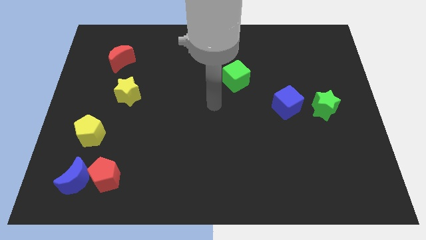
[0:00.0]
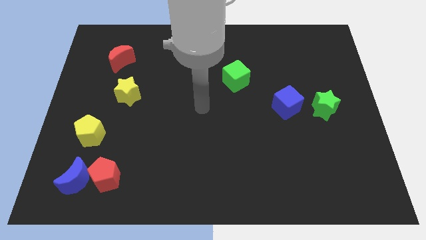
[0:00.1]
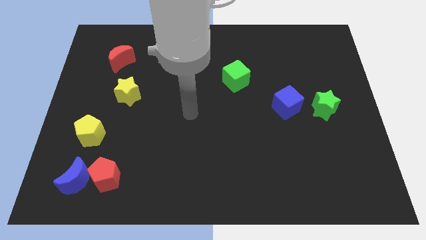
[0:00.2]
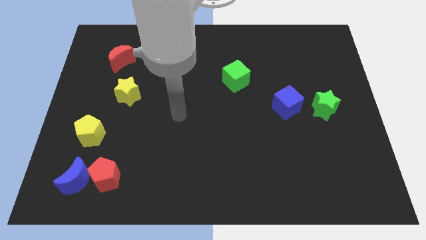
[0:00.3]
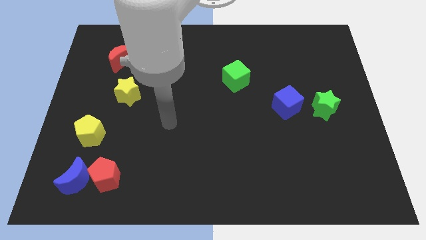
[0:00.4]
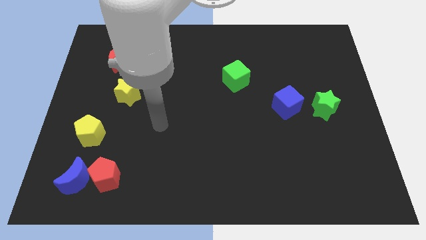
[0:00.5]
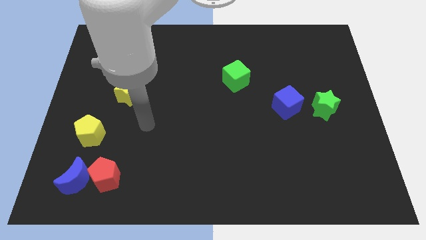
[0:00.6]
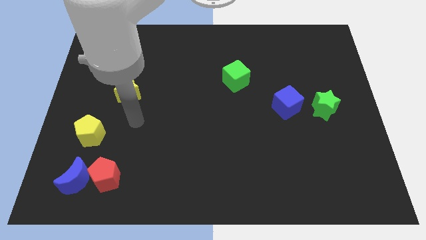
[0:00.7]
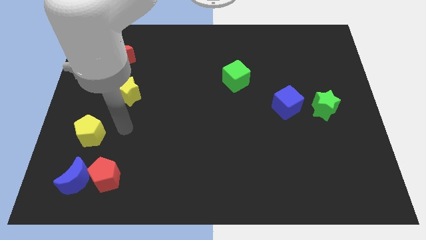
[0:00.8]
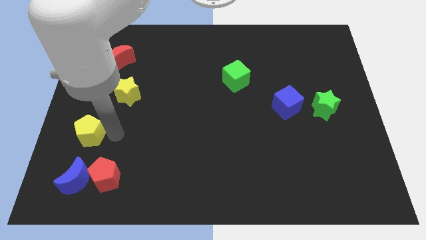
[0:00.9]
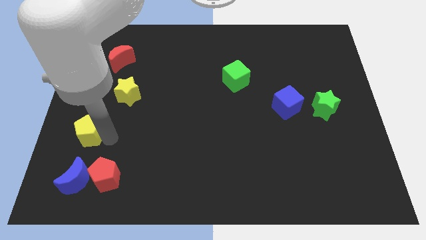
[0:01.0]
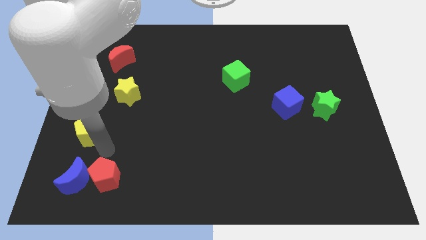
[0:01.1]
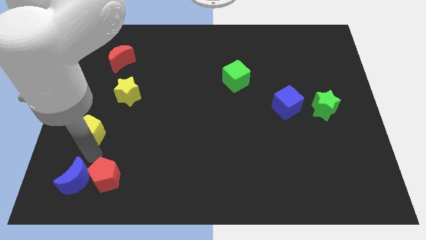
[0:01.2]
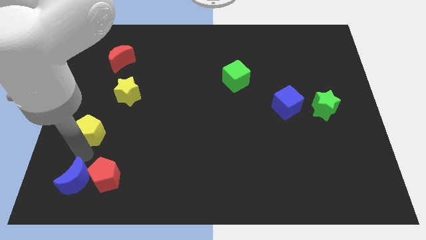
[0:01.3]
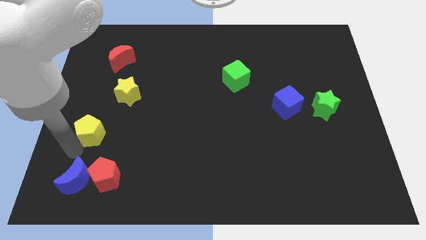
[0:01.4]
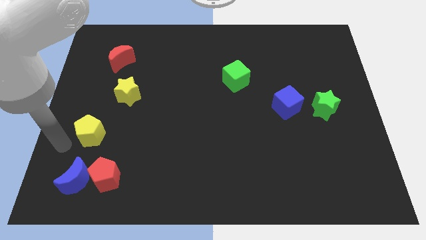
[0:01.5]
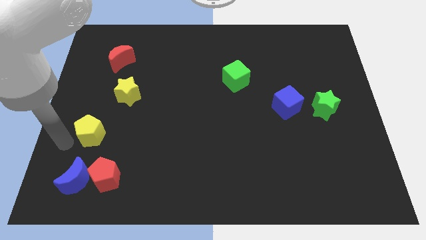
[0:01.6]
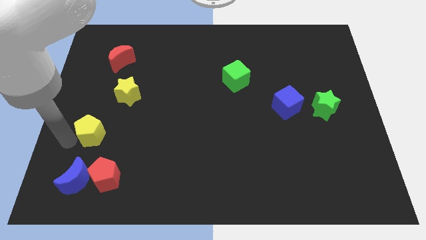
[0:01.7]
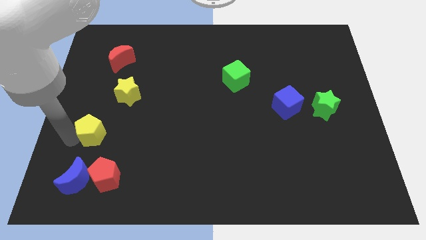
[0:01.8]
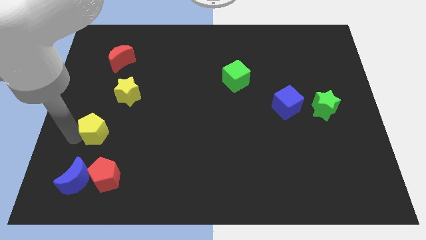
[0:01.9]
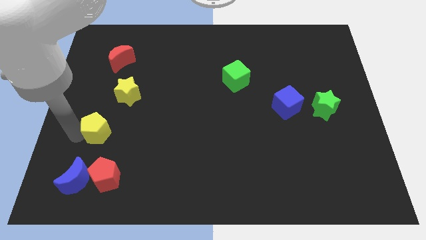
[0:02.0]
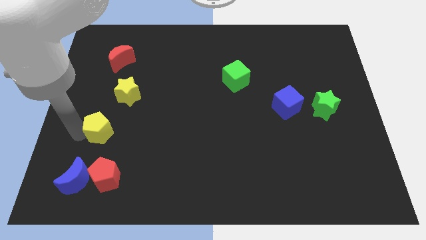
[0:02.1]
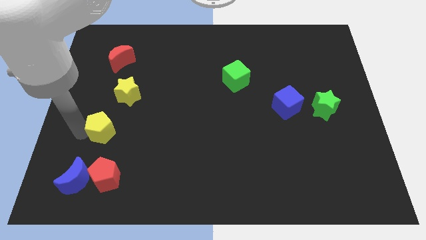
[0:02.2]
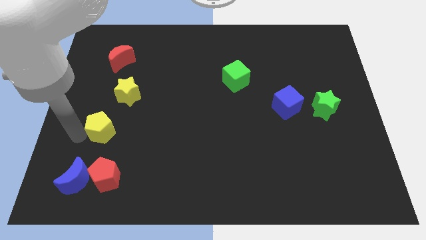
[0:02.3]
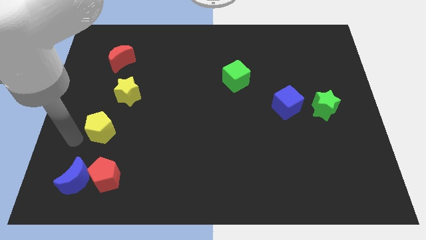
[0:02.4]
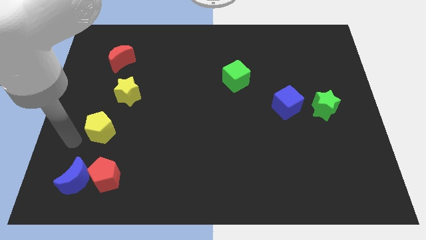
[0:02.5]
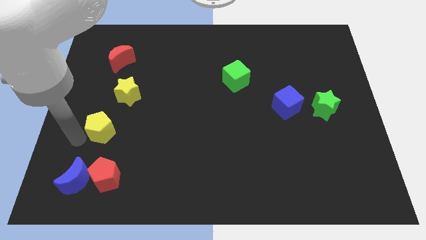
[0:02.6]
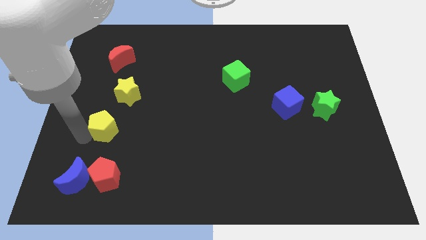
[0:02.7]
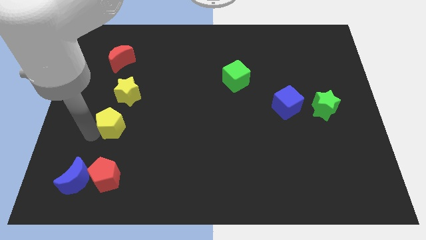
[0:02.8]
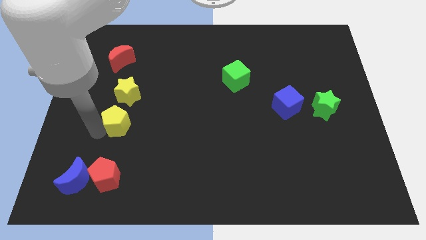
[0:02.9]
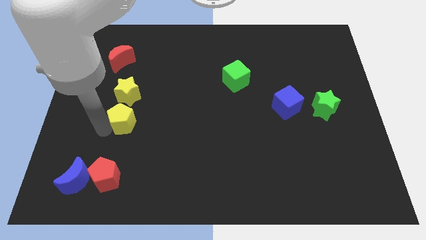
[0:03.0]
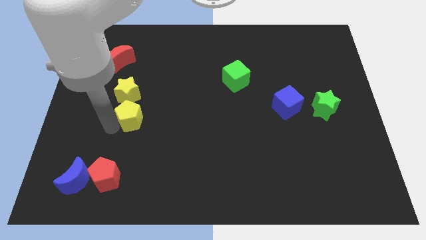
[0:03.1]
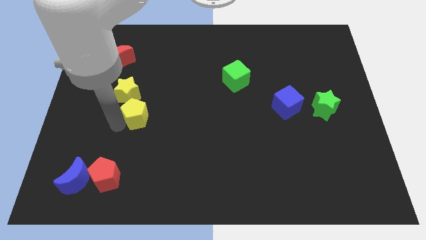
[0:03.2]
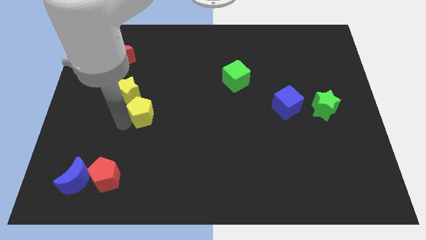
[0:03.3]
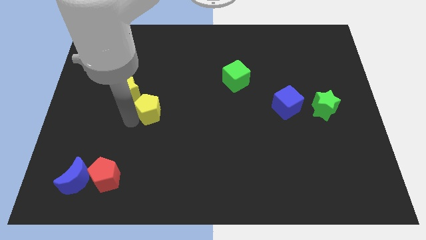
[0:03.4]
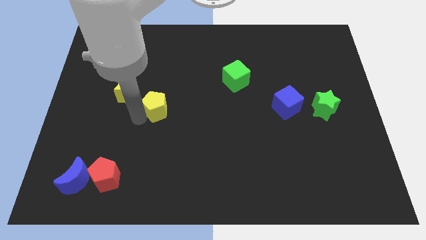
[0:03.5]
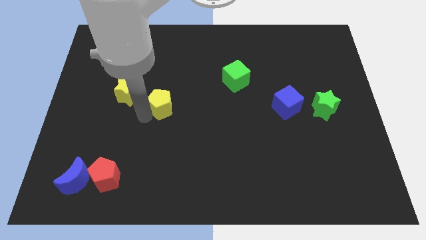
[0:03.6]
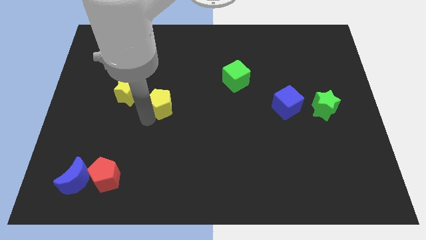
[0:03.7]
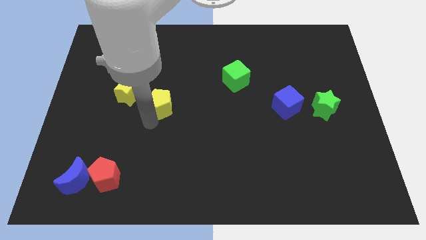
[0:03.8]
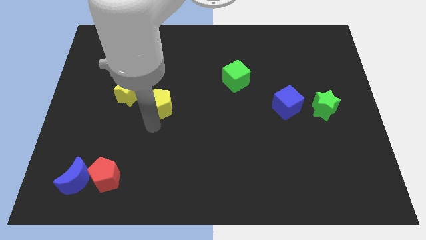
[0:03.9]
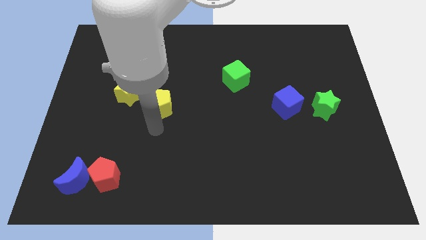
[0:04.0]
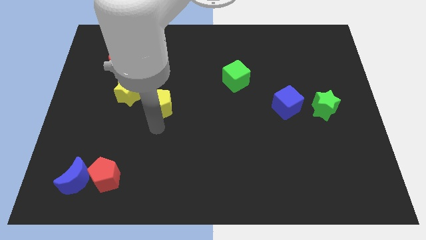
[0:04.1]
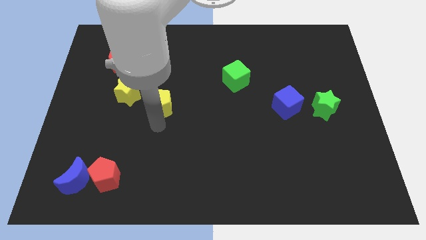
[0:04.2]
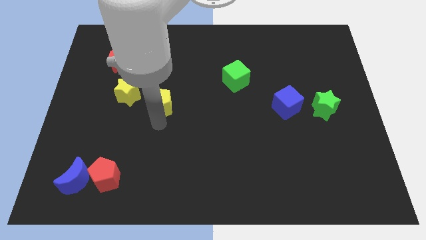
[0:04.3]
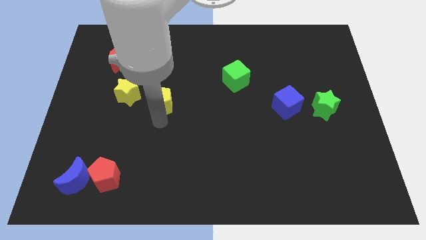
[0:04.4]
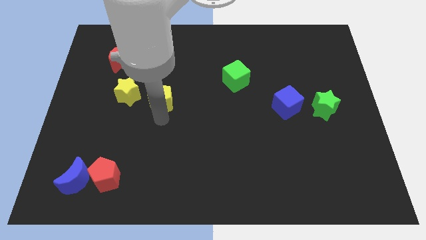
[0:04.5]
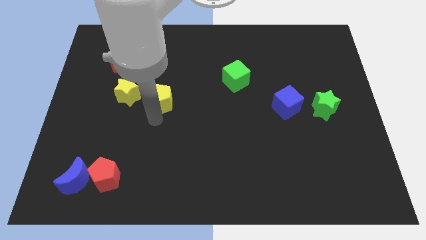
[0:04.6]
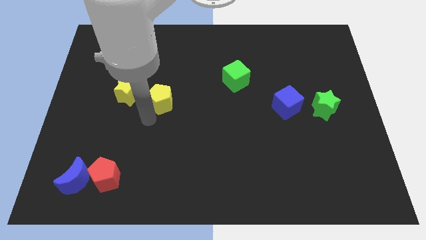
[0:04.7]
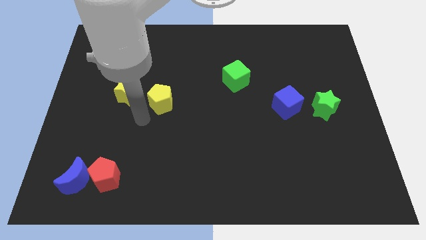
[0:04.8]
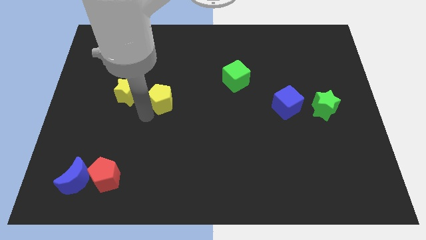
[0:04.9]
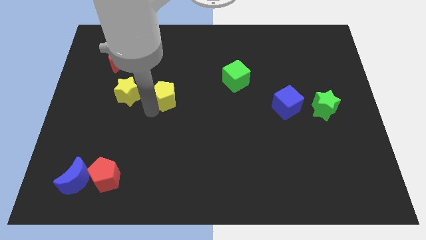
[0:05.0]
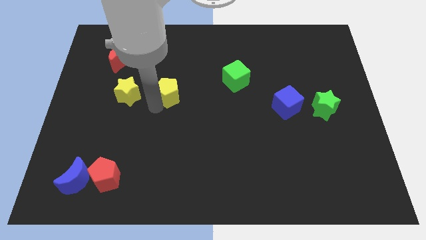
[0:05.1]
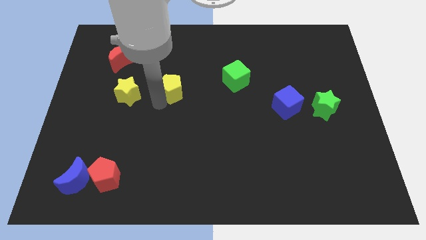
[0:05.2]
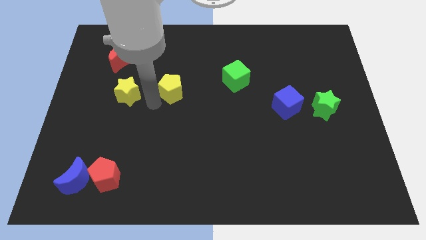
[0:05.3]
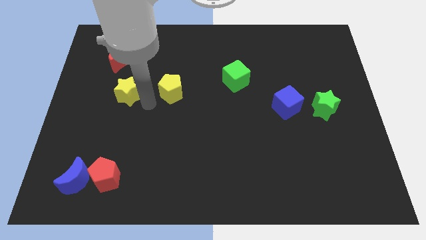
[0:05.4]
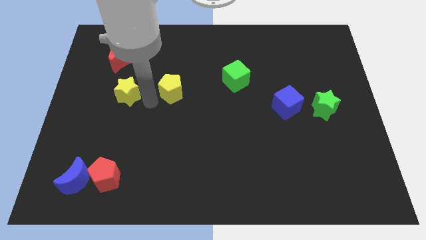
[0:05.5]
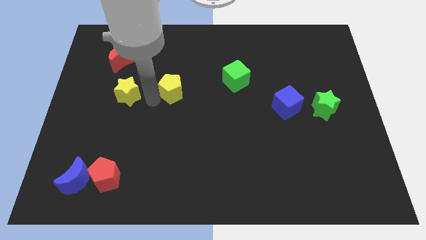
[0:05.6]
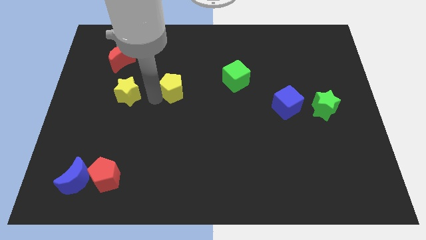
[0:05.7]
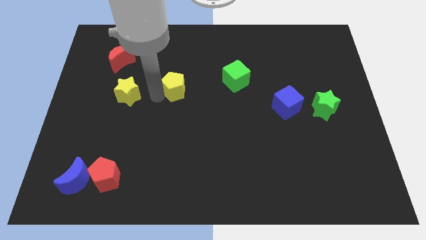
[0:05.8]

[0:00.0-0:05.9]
move the yellow pentagon just left of the green cube

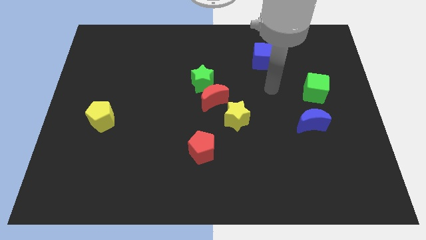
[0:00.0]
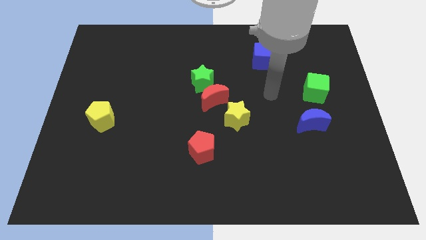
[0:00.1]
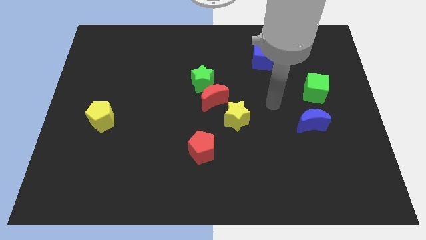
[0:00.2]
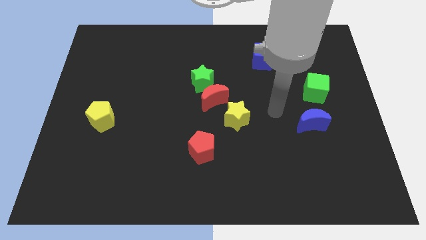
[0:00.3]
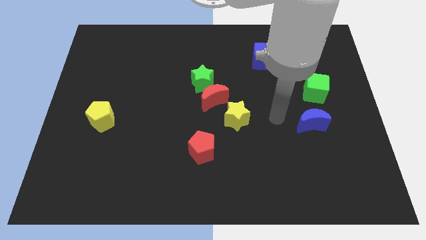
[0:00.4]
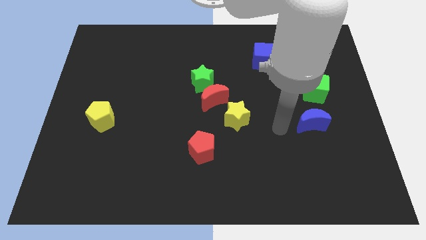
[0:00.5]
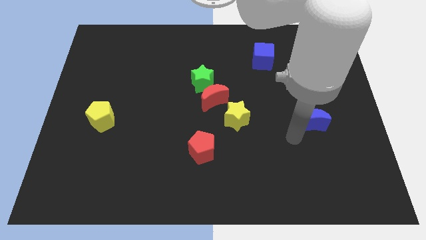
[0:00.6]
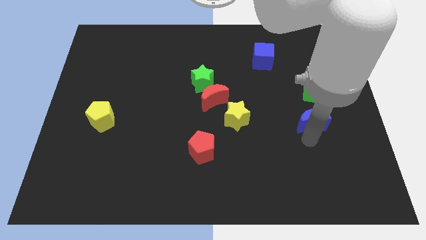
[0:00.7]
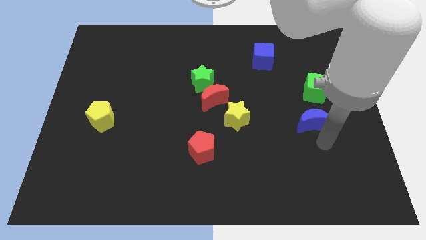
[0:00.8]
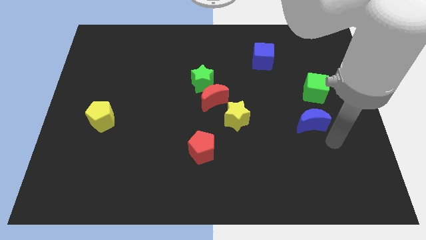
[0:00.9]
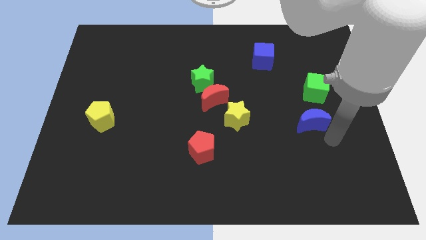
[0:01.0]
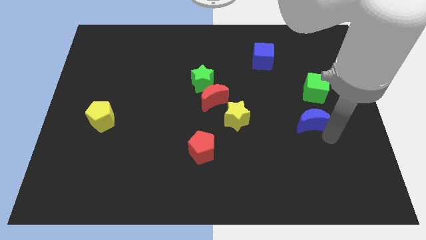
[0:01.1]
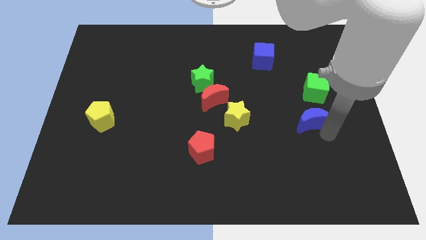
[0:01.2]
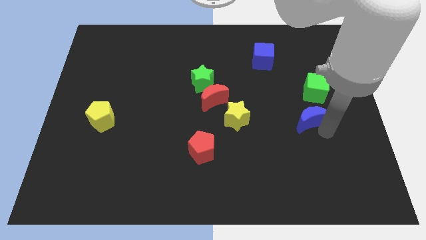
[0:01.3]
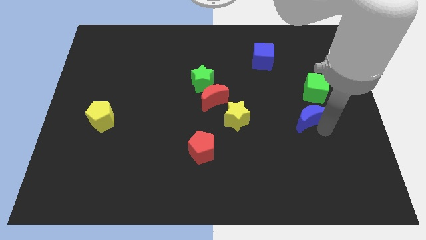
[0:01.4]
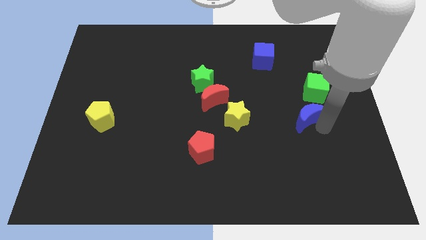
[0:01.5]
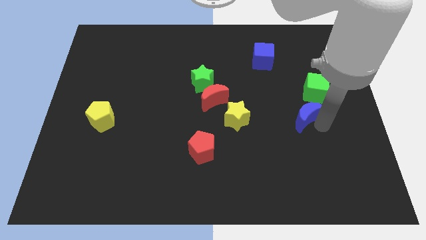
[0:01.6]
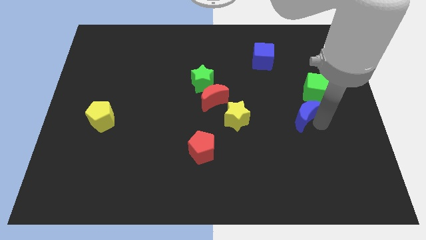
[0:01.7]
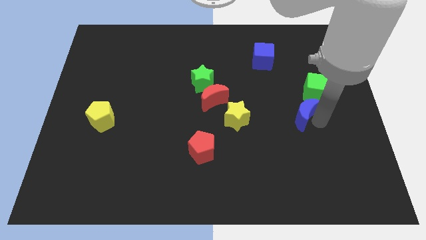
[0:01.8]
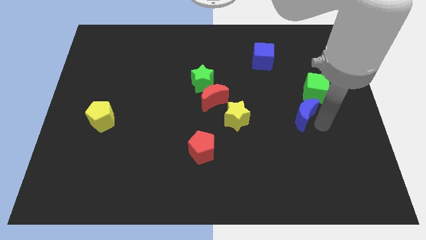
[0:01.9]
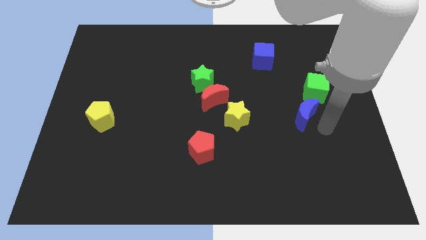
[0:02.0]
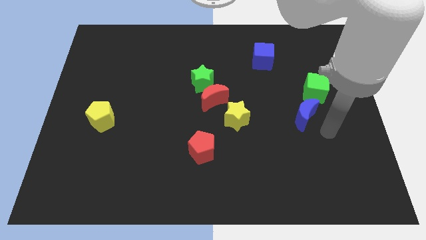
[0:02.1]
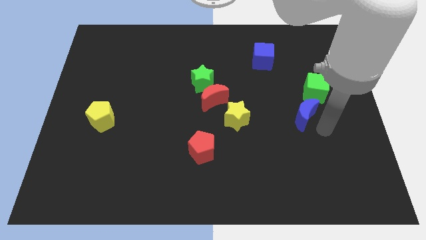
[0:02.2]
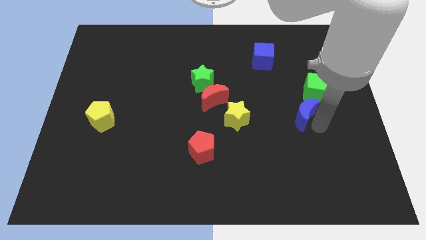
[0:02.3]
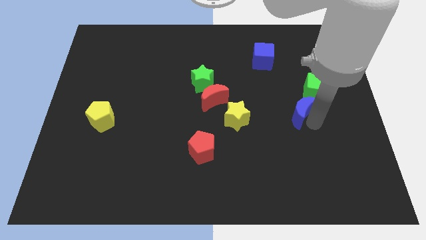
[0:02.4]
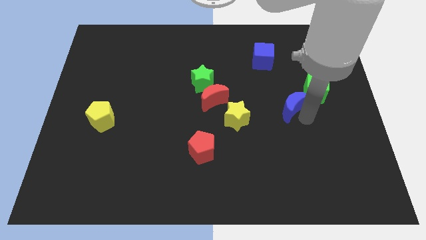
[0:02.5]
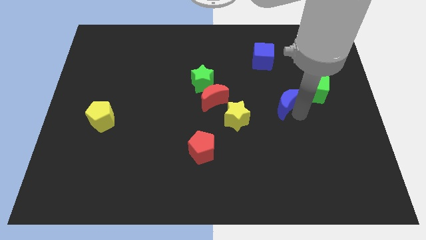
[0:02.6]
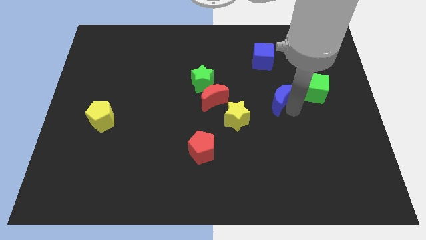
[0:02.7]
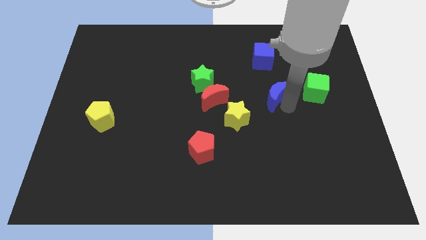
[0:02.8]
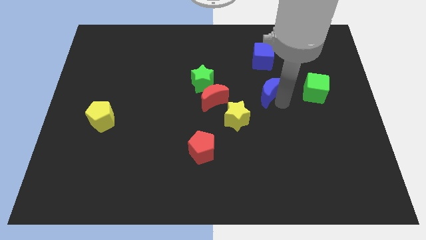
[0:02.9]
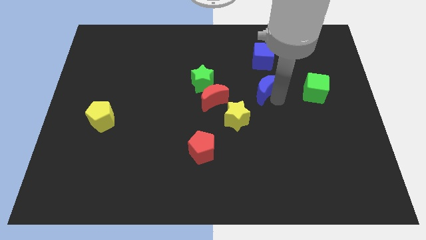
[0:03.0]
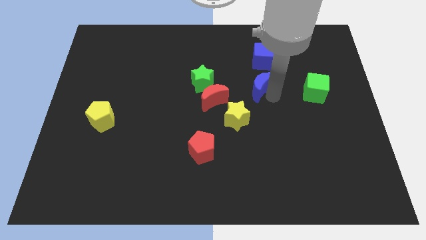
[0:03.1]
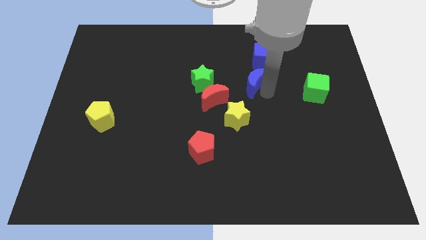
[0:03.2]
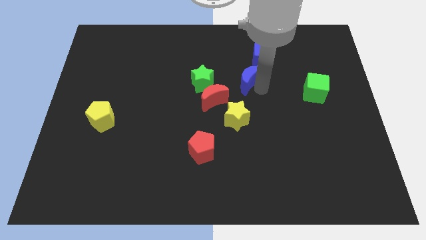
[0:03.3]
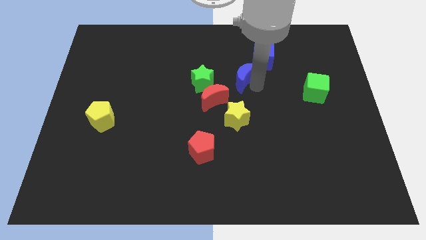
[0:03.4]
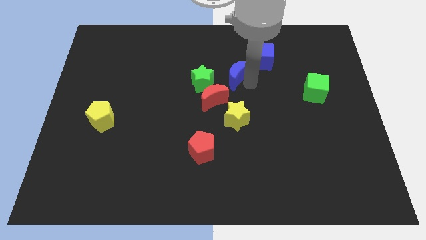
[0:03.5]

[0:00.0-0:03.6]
move the blue moon to the top right side of the green star
